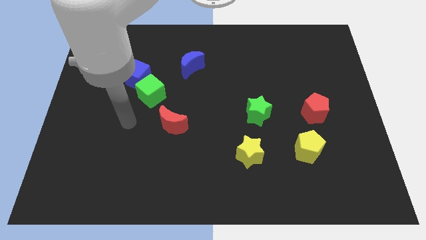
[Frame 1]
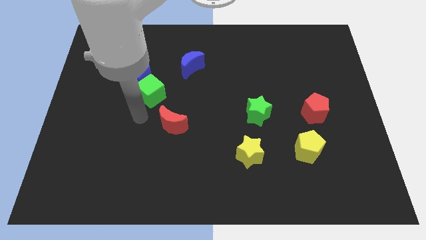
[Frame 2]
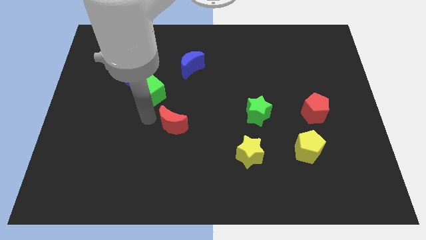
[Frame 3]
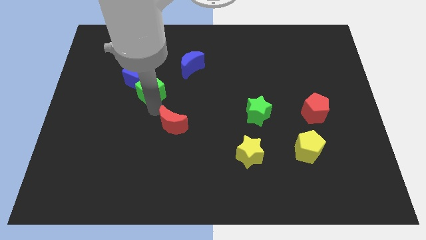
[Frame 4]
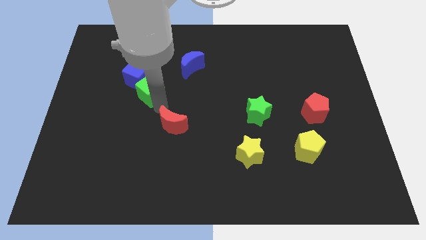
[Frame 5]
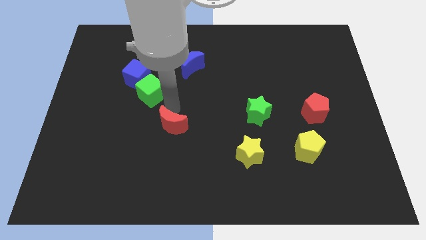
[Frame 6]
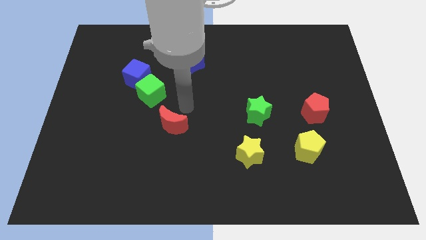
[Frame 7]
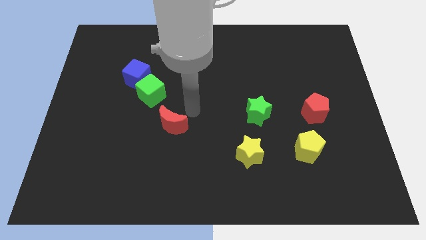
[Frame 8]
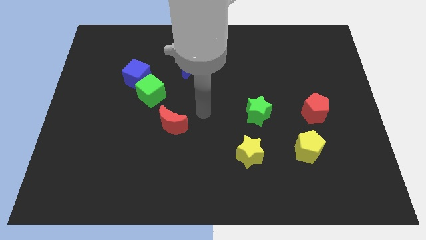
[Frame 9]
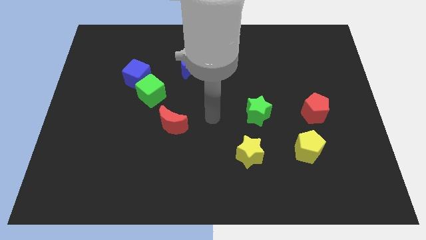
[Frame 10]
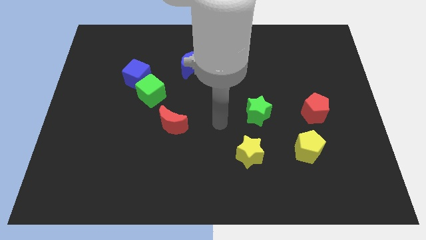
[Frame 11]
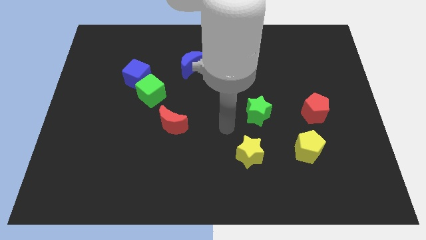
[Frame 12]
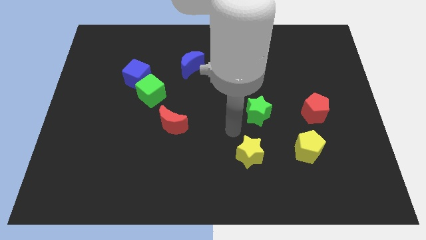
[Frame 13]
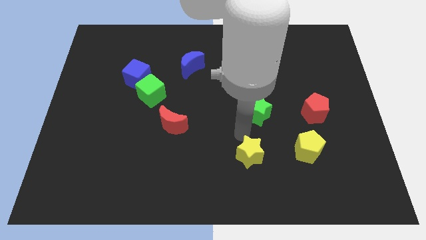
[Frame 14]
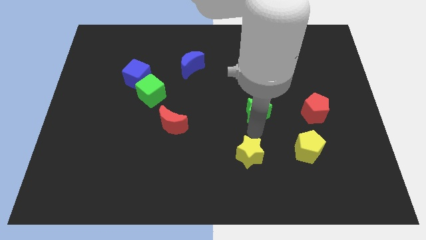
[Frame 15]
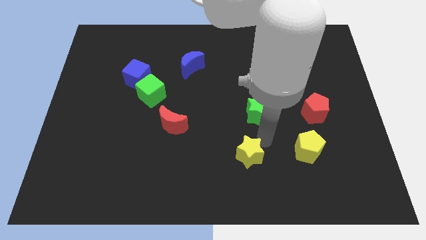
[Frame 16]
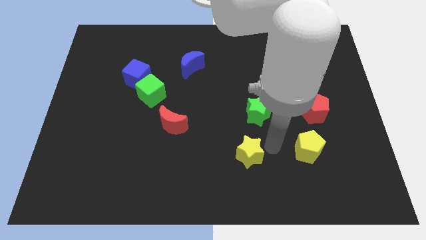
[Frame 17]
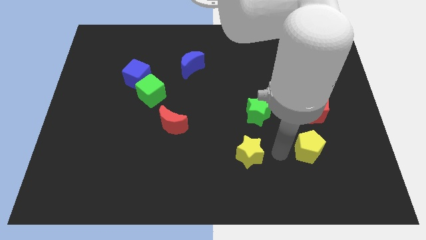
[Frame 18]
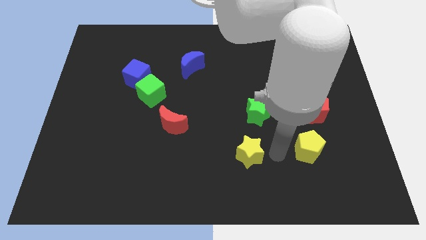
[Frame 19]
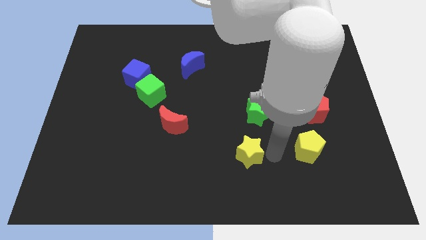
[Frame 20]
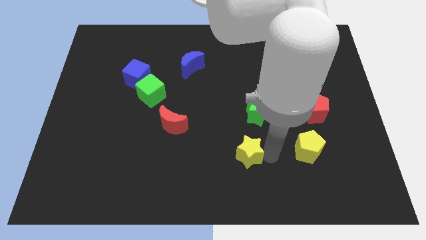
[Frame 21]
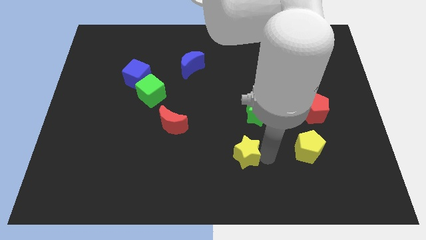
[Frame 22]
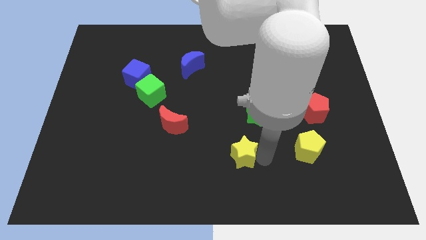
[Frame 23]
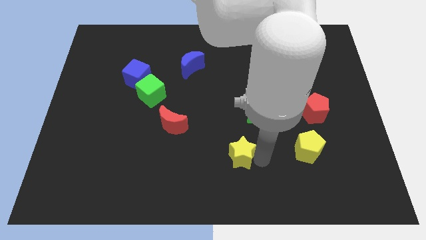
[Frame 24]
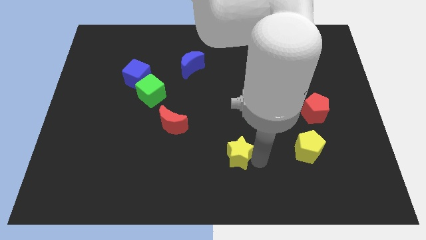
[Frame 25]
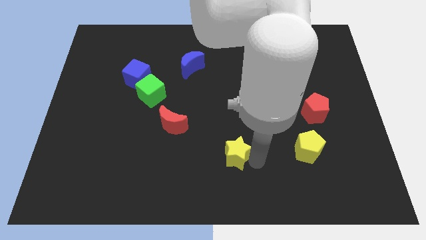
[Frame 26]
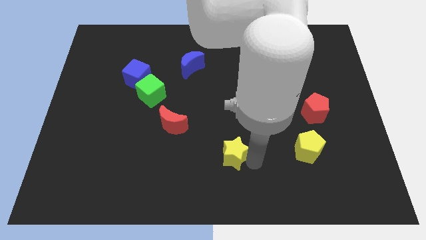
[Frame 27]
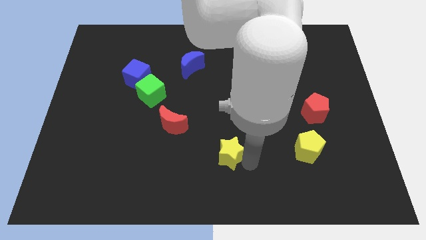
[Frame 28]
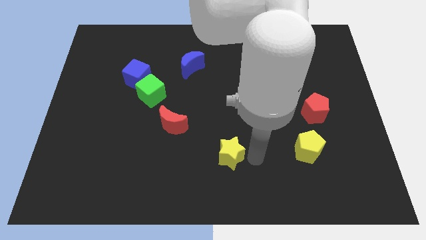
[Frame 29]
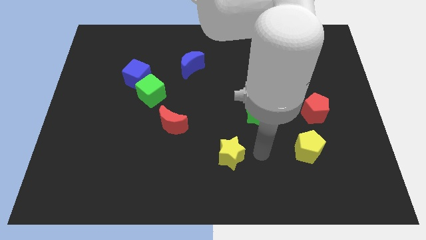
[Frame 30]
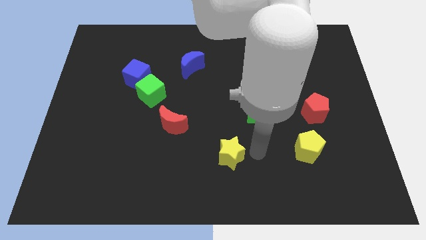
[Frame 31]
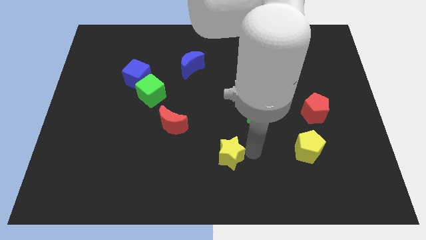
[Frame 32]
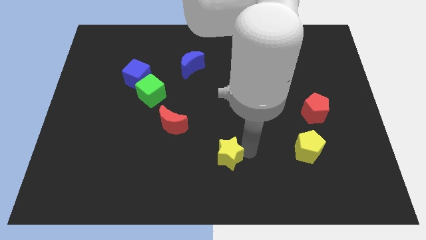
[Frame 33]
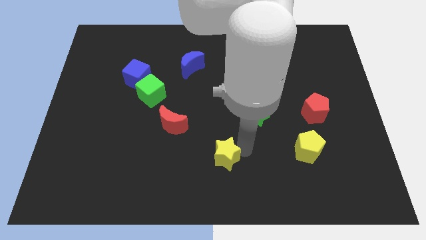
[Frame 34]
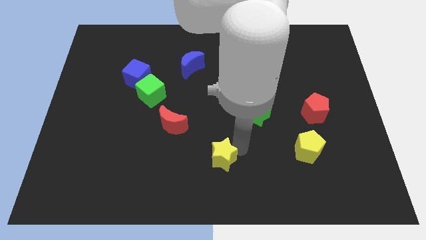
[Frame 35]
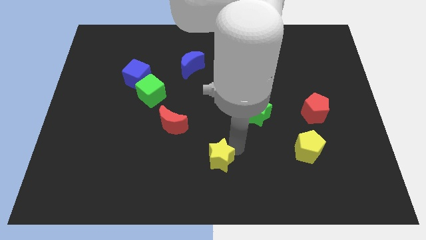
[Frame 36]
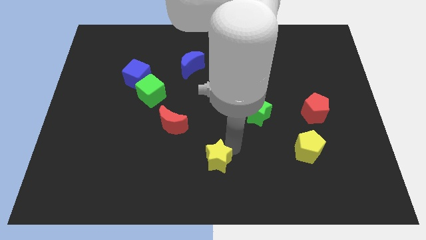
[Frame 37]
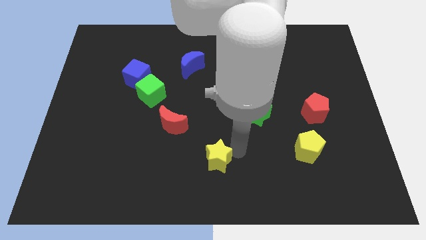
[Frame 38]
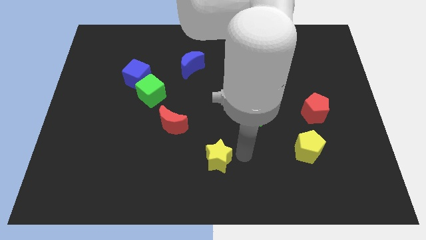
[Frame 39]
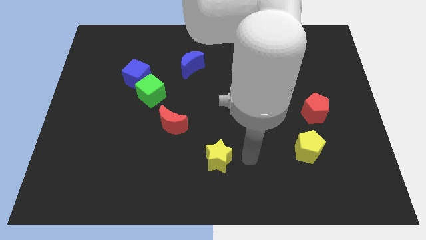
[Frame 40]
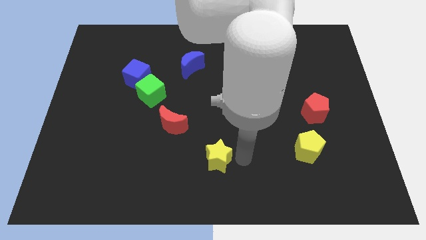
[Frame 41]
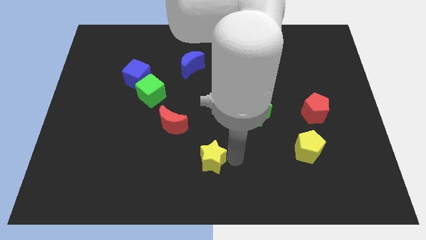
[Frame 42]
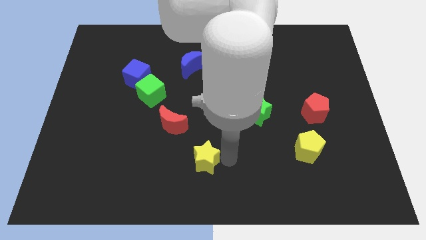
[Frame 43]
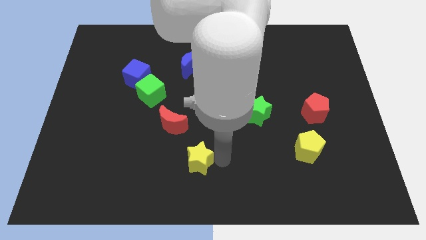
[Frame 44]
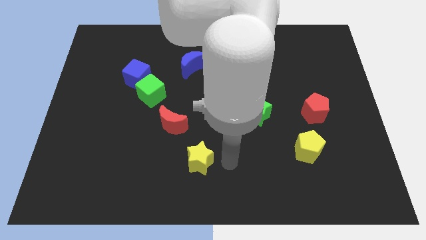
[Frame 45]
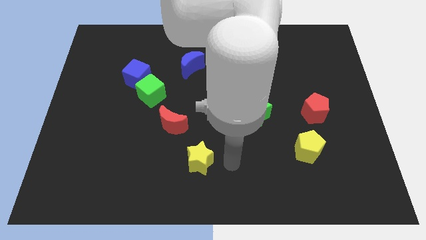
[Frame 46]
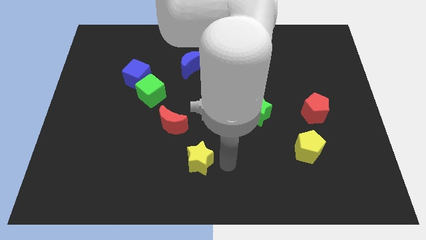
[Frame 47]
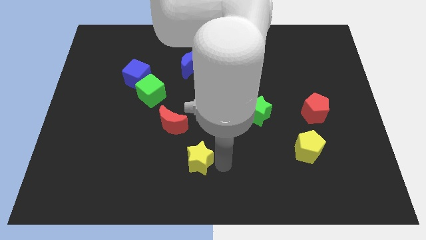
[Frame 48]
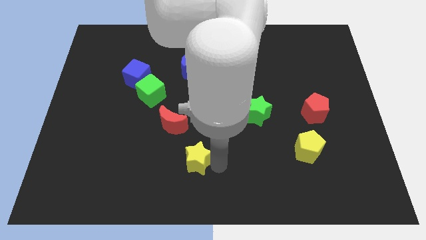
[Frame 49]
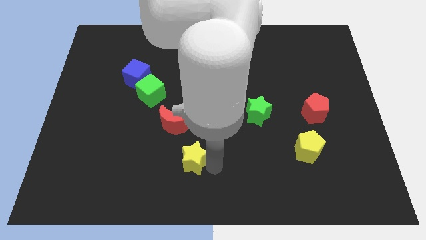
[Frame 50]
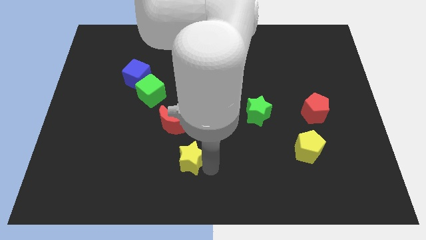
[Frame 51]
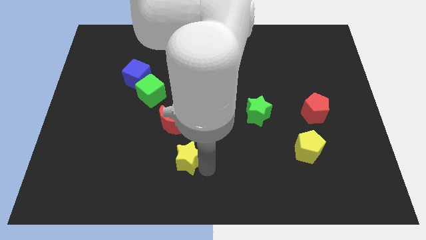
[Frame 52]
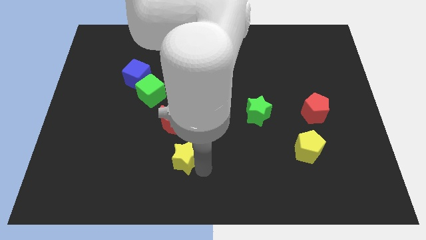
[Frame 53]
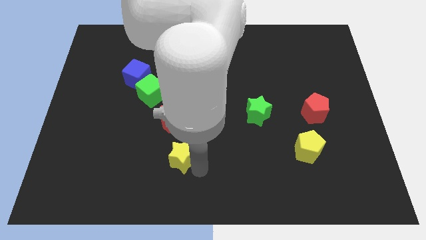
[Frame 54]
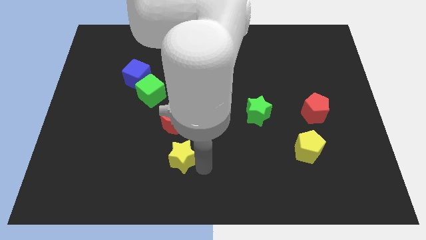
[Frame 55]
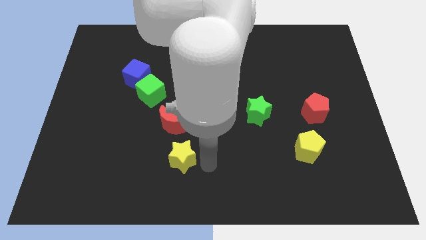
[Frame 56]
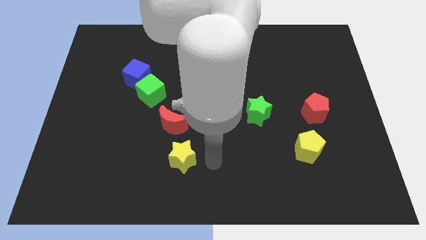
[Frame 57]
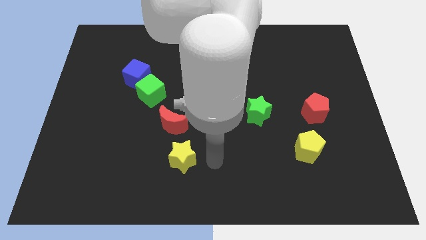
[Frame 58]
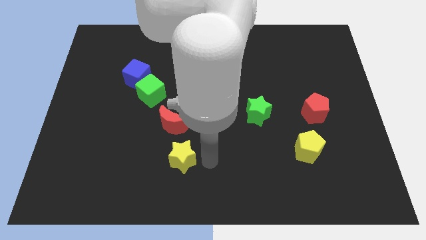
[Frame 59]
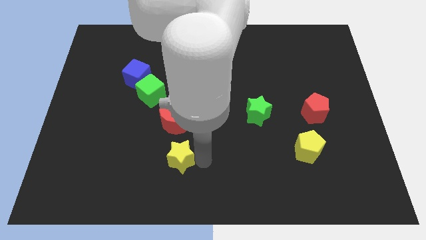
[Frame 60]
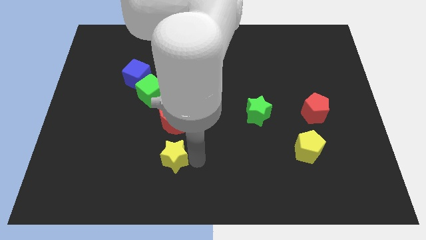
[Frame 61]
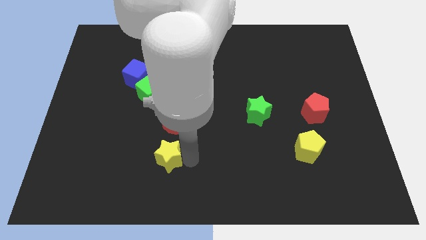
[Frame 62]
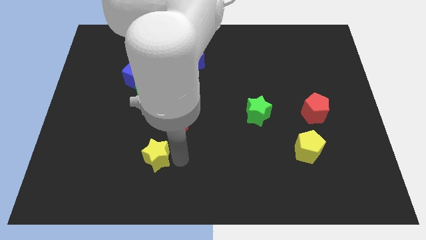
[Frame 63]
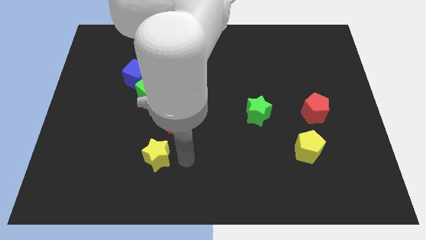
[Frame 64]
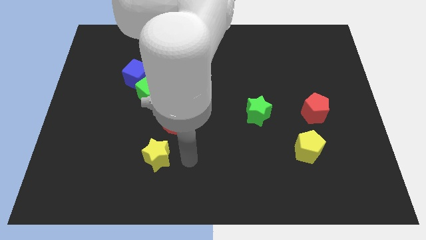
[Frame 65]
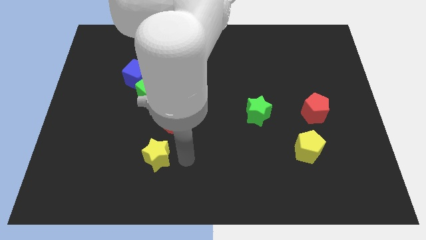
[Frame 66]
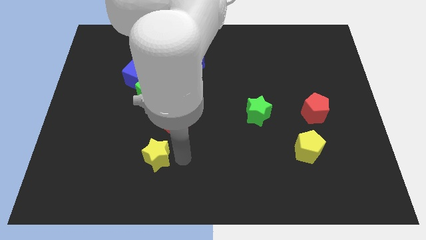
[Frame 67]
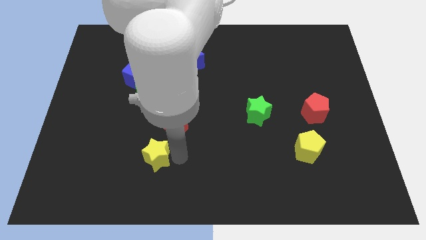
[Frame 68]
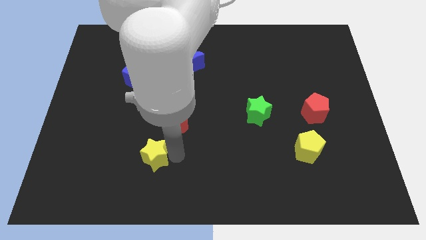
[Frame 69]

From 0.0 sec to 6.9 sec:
push the yellow star left

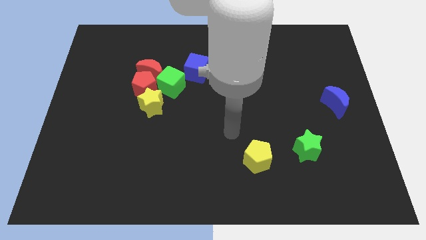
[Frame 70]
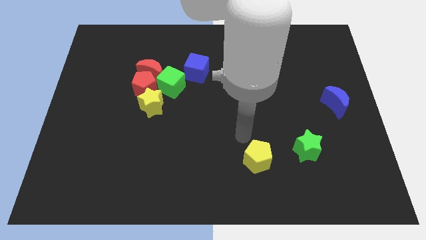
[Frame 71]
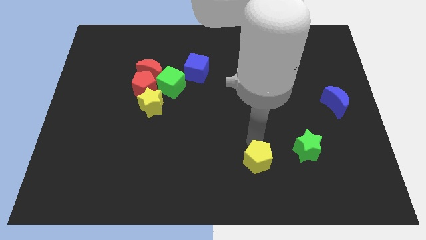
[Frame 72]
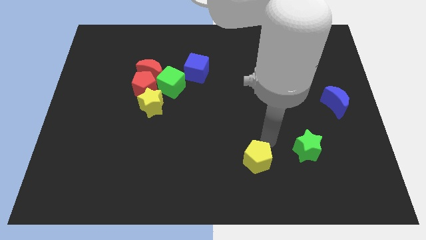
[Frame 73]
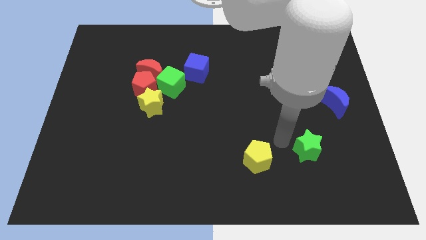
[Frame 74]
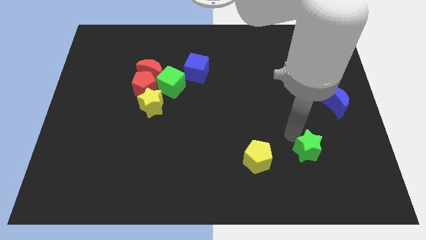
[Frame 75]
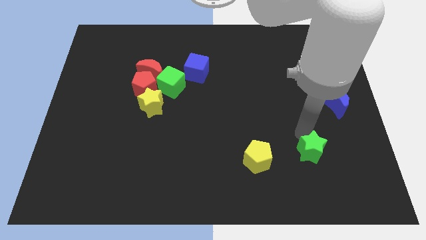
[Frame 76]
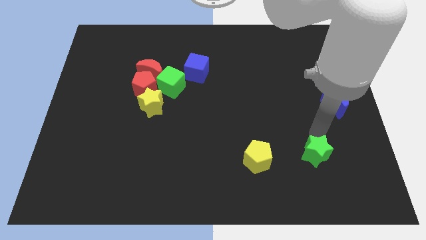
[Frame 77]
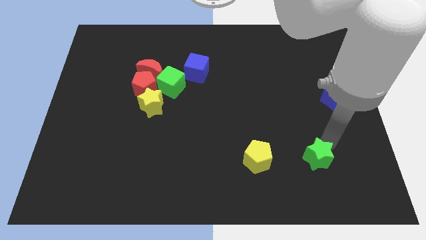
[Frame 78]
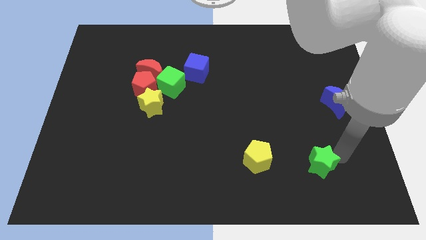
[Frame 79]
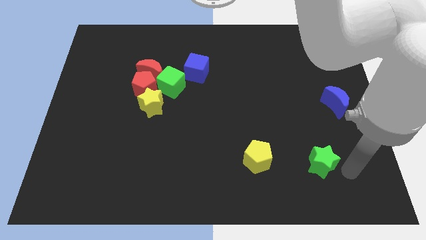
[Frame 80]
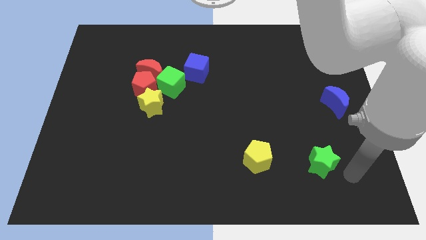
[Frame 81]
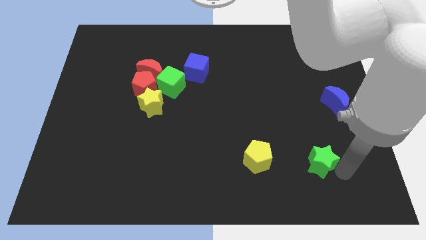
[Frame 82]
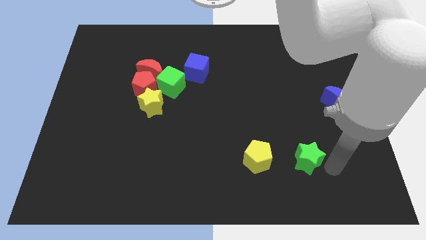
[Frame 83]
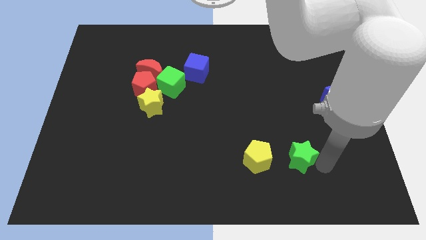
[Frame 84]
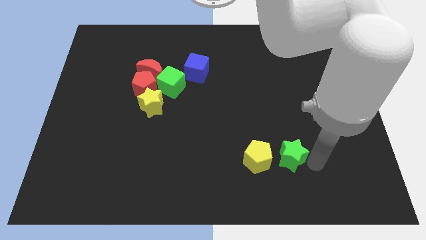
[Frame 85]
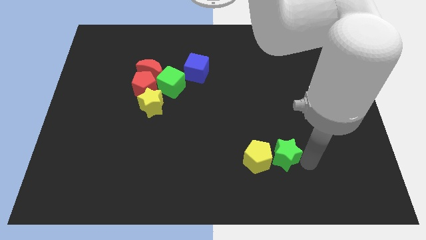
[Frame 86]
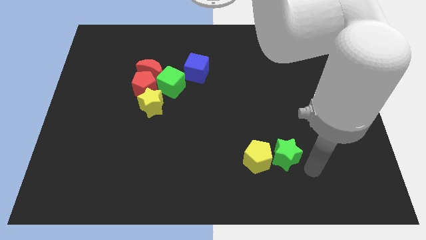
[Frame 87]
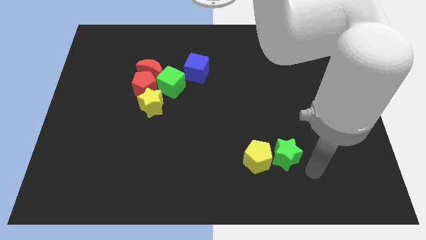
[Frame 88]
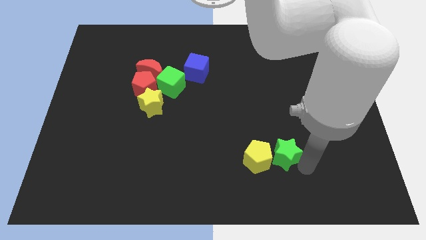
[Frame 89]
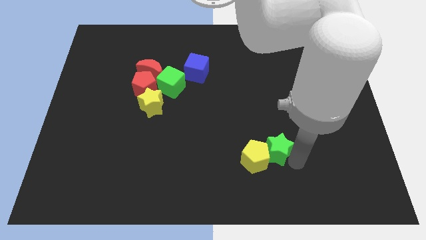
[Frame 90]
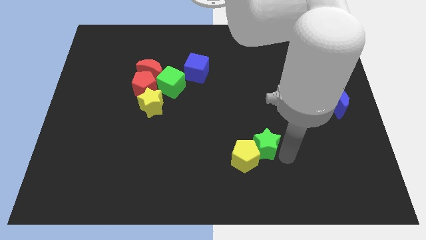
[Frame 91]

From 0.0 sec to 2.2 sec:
slightly move the green star to the left
